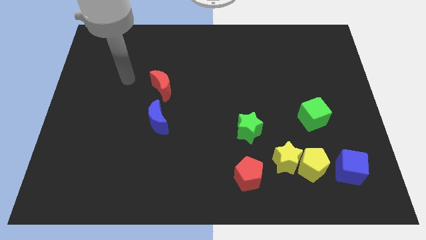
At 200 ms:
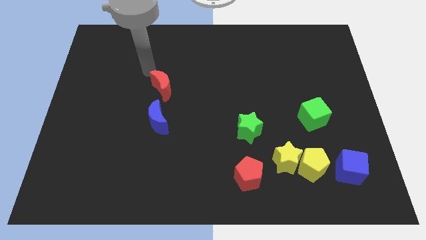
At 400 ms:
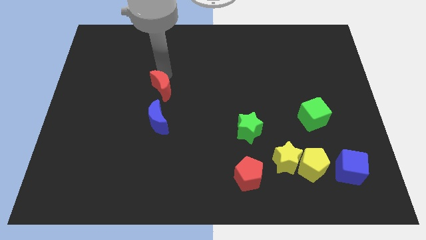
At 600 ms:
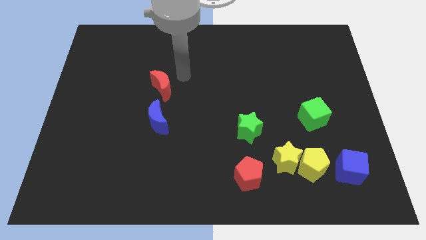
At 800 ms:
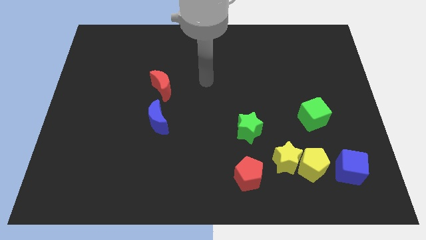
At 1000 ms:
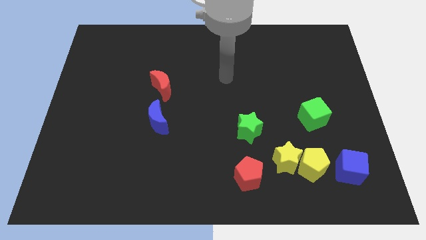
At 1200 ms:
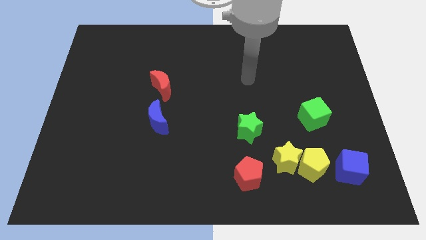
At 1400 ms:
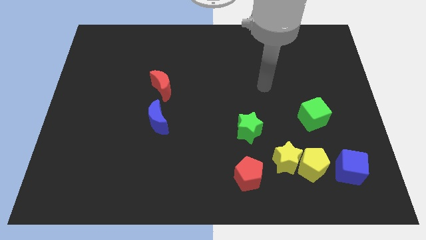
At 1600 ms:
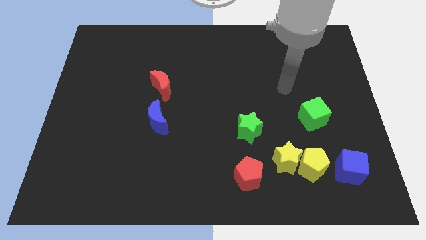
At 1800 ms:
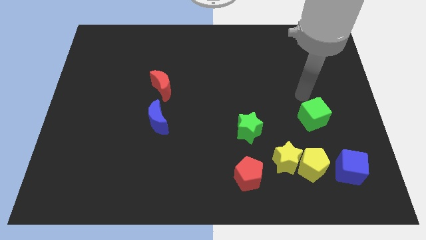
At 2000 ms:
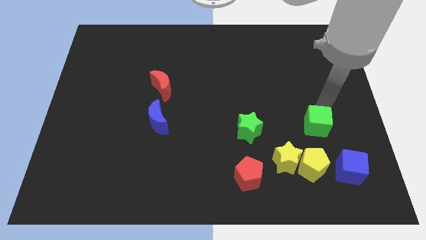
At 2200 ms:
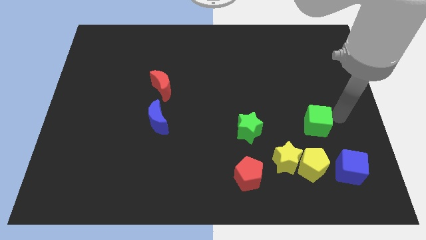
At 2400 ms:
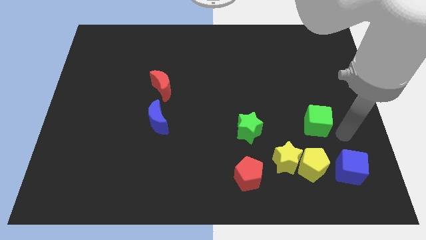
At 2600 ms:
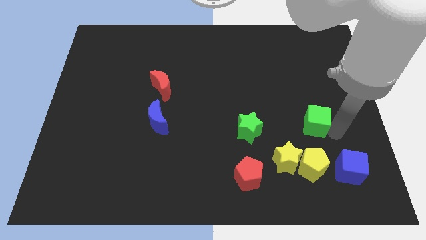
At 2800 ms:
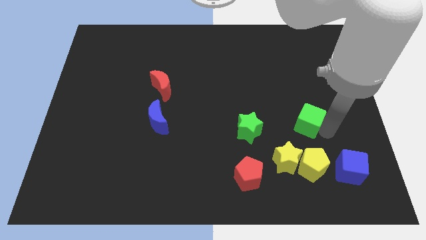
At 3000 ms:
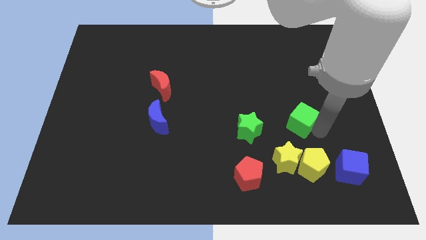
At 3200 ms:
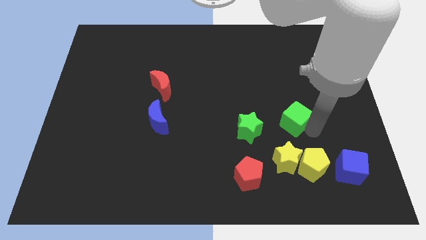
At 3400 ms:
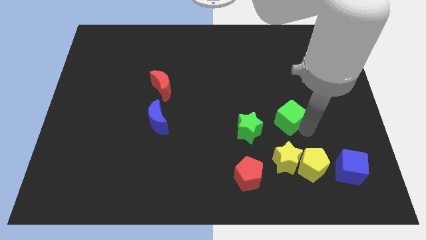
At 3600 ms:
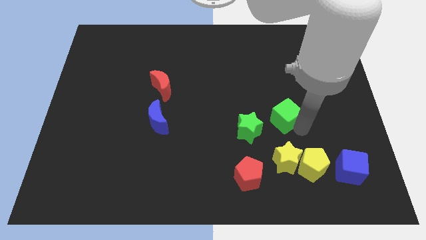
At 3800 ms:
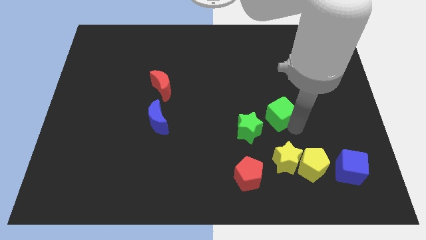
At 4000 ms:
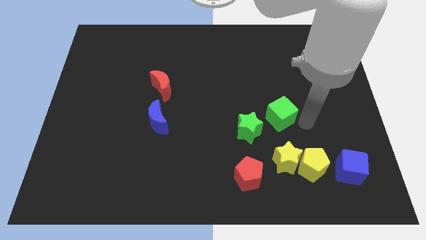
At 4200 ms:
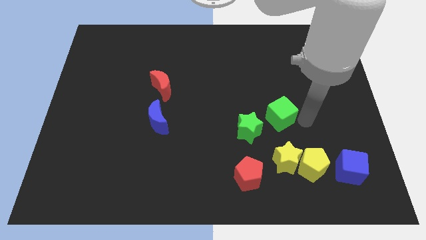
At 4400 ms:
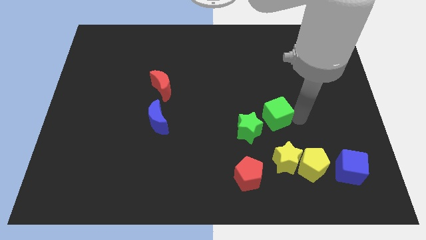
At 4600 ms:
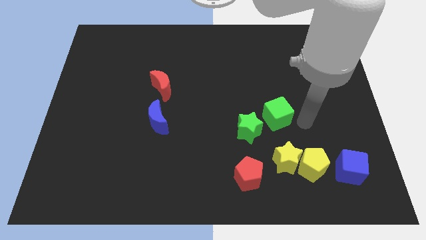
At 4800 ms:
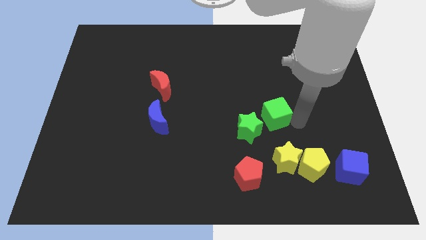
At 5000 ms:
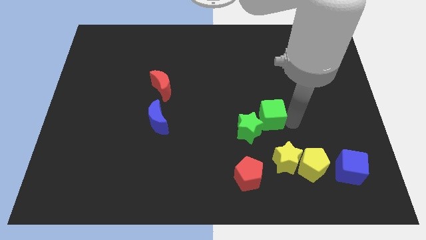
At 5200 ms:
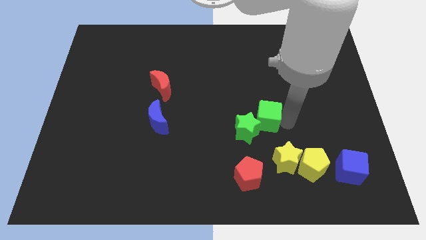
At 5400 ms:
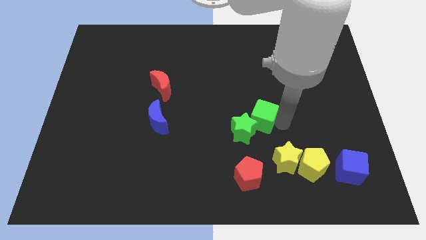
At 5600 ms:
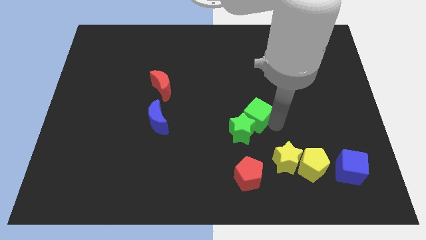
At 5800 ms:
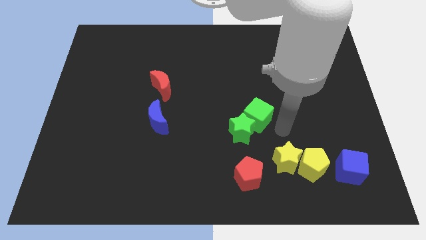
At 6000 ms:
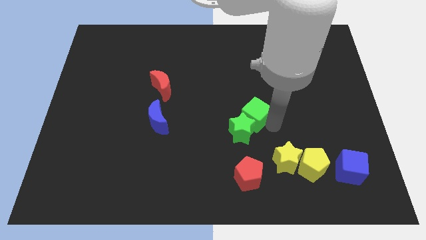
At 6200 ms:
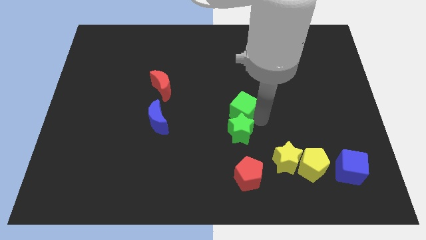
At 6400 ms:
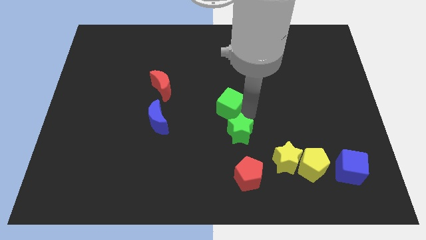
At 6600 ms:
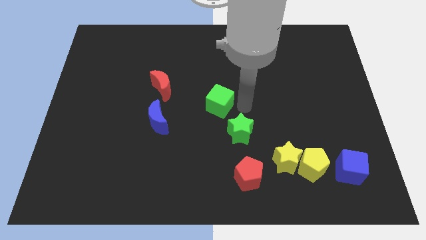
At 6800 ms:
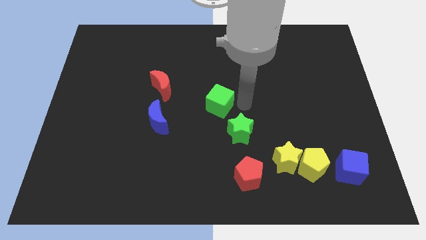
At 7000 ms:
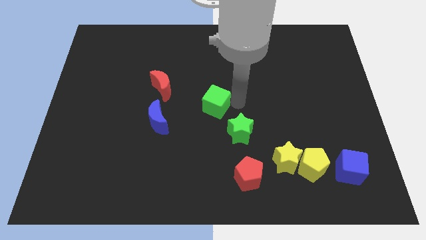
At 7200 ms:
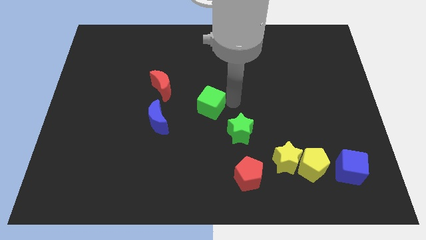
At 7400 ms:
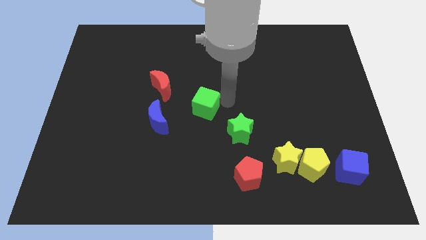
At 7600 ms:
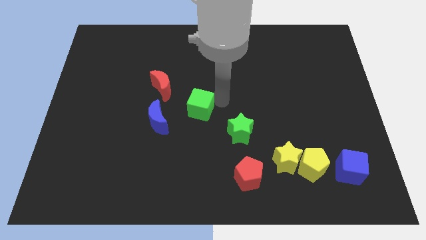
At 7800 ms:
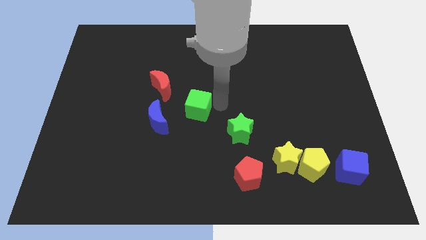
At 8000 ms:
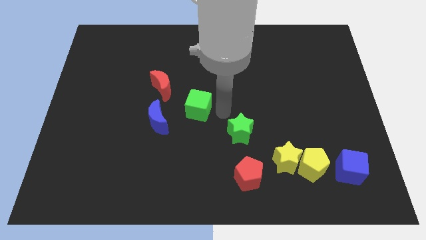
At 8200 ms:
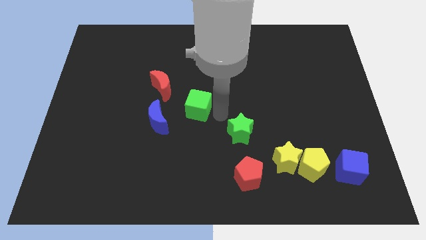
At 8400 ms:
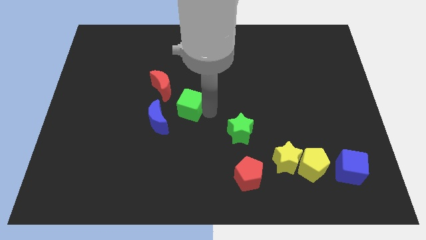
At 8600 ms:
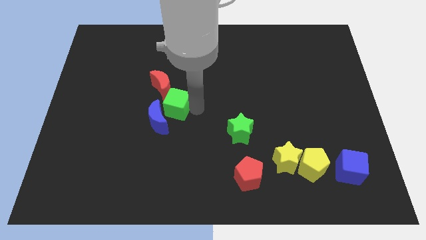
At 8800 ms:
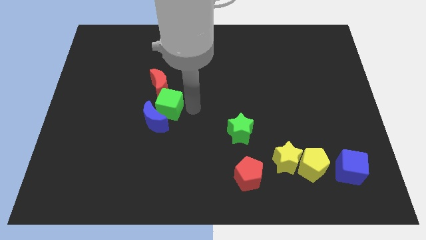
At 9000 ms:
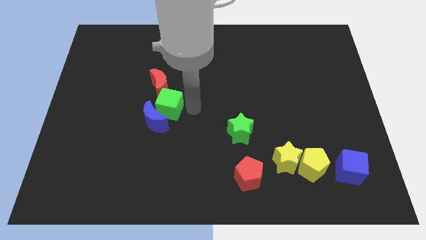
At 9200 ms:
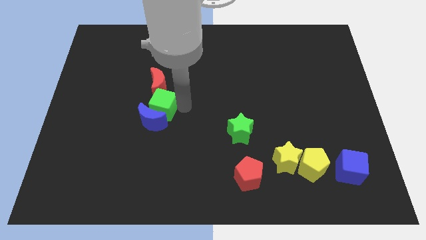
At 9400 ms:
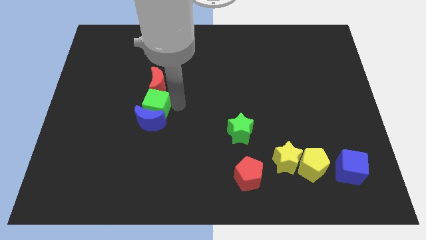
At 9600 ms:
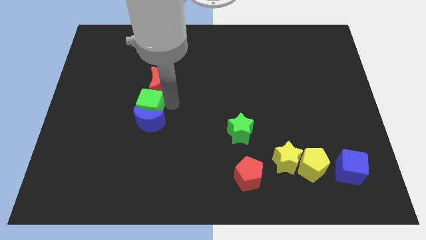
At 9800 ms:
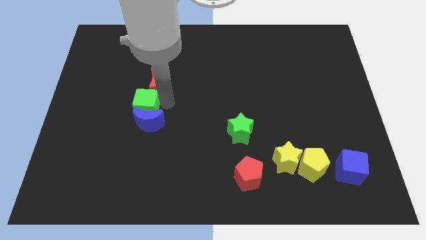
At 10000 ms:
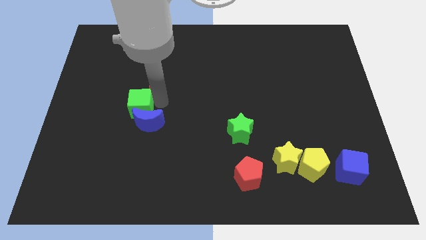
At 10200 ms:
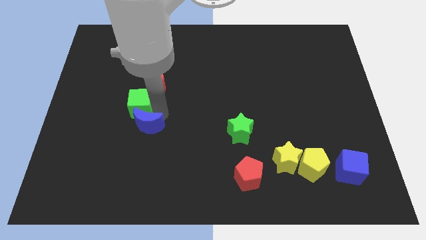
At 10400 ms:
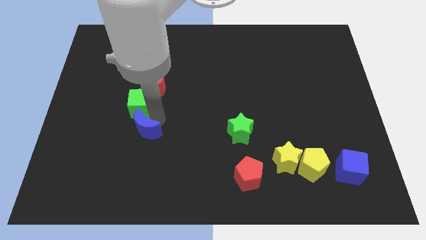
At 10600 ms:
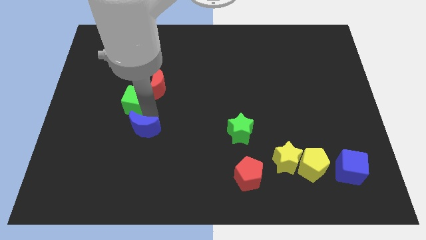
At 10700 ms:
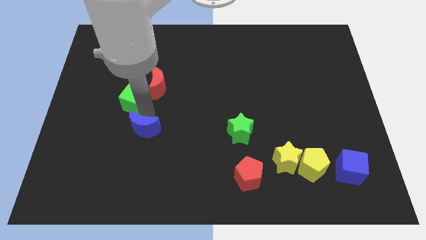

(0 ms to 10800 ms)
slide the green cube to the left side of the red moon

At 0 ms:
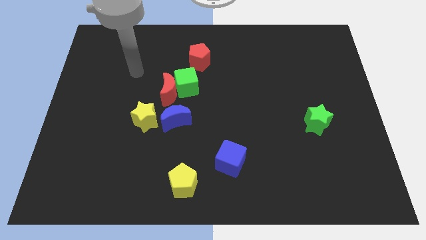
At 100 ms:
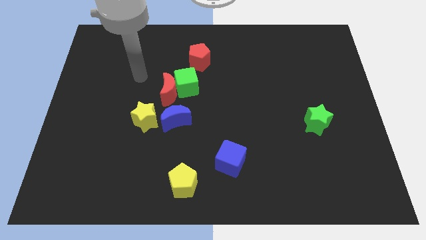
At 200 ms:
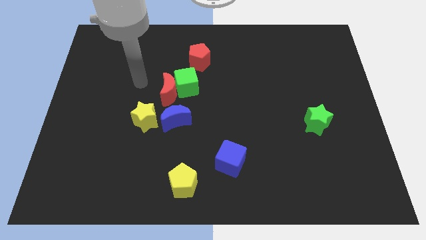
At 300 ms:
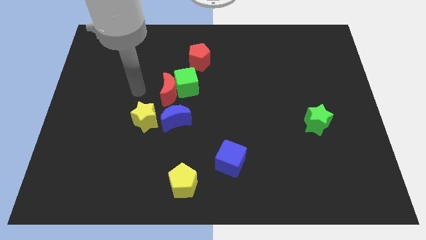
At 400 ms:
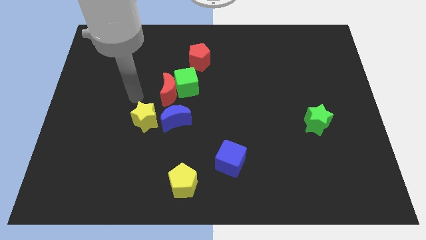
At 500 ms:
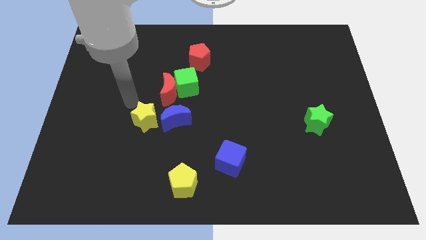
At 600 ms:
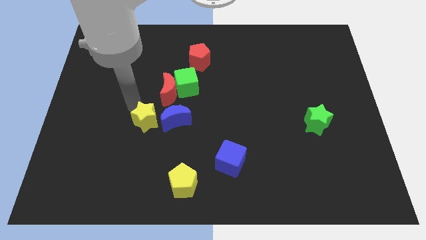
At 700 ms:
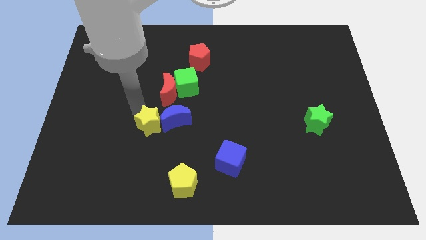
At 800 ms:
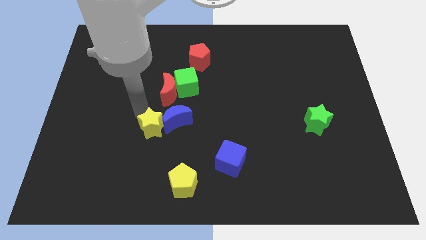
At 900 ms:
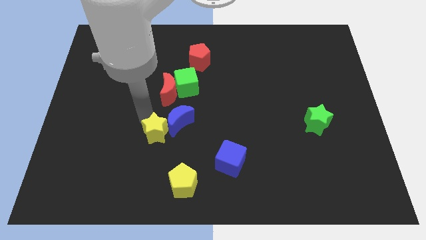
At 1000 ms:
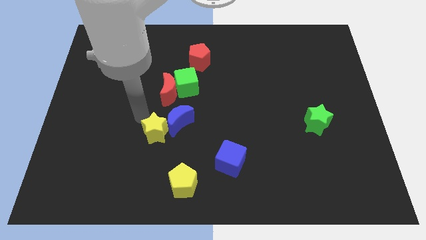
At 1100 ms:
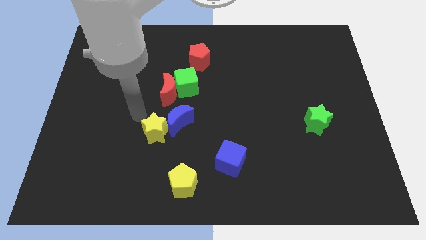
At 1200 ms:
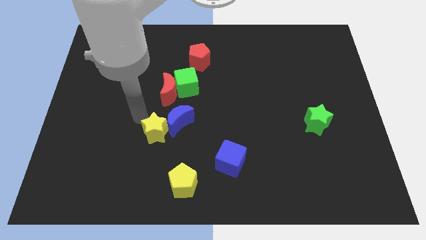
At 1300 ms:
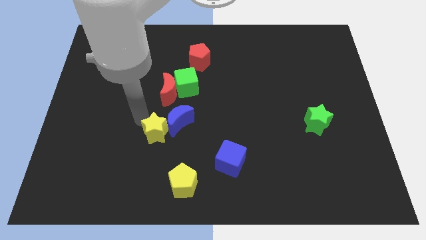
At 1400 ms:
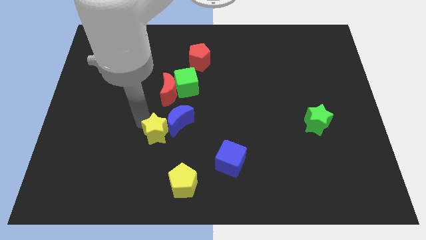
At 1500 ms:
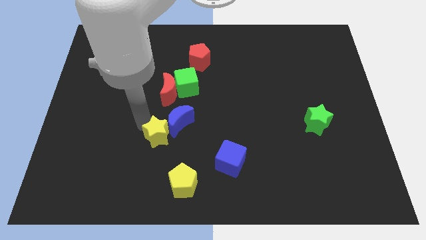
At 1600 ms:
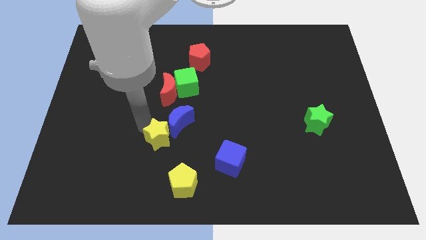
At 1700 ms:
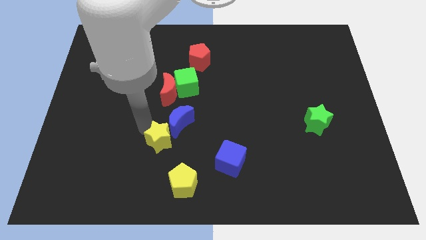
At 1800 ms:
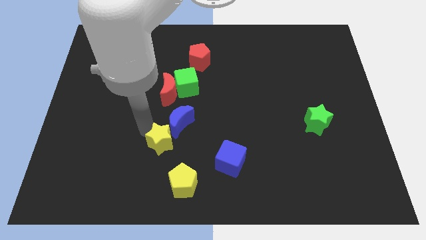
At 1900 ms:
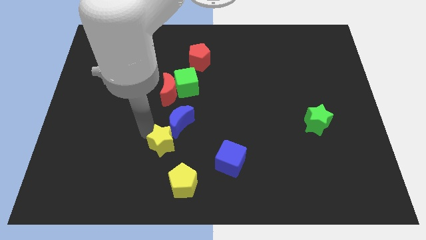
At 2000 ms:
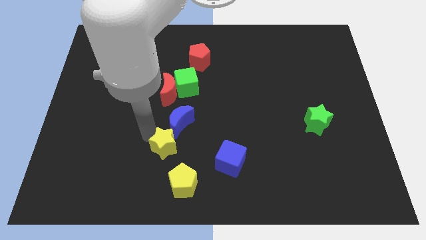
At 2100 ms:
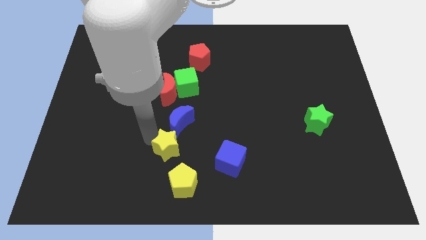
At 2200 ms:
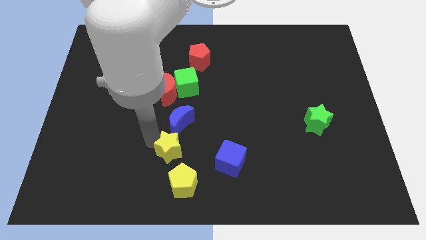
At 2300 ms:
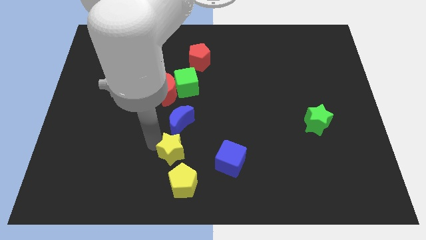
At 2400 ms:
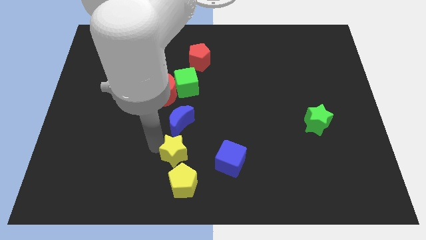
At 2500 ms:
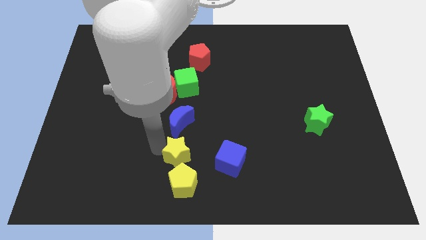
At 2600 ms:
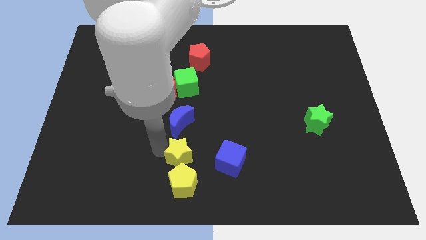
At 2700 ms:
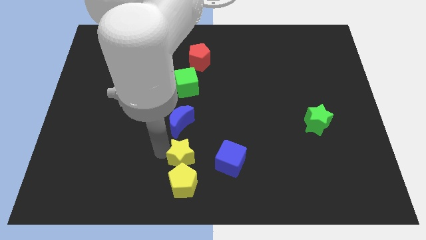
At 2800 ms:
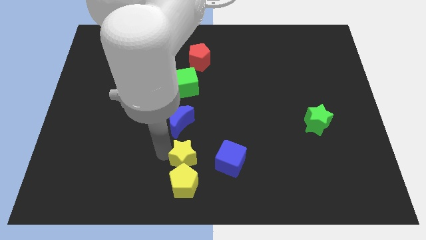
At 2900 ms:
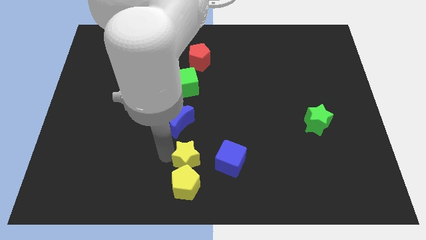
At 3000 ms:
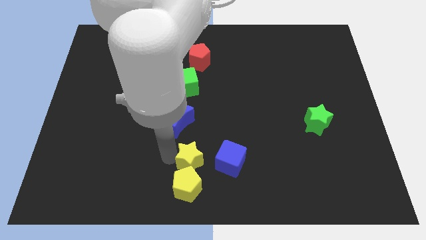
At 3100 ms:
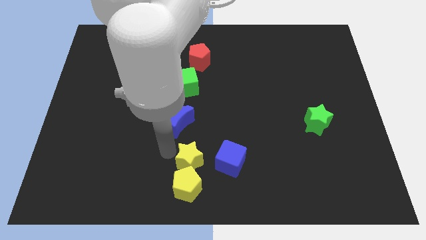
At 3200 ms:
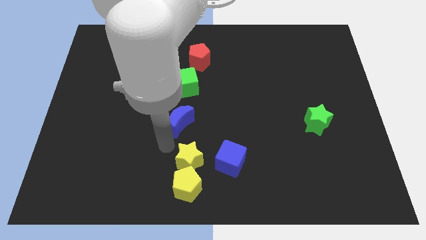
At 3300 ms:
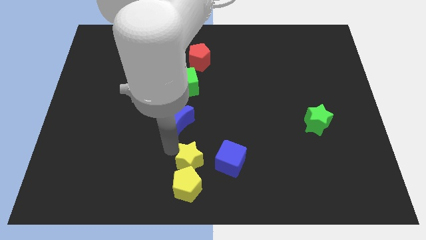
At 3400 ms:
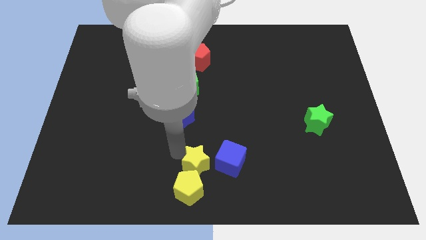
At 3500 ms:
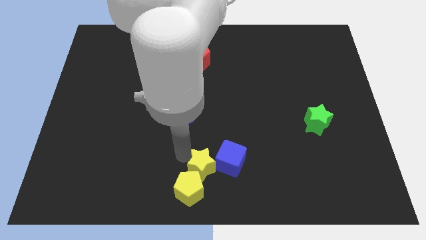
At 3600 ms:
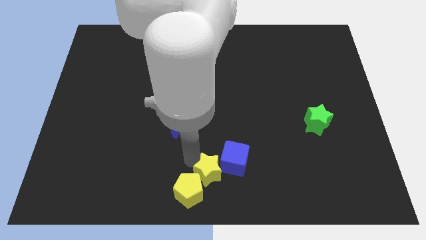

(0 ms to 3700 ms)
push the yellow star right of the yellow pentagon
